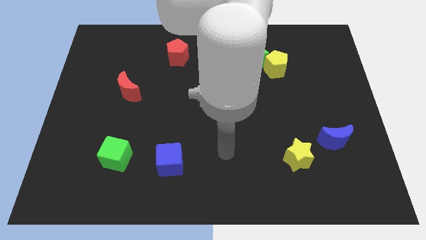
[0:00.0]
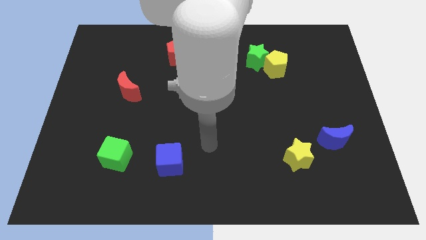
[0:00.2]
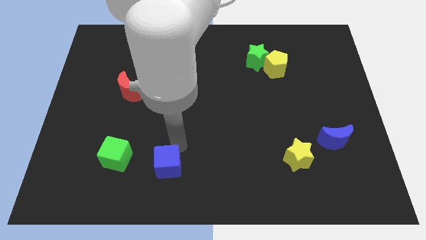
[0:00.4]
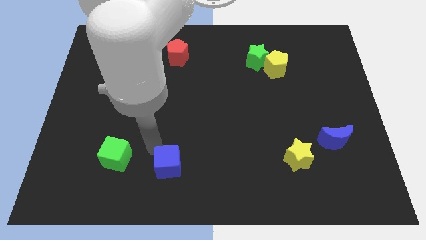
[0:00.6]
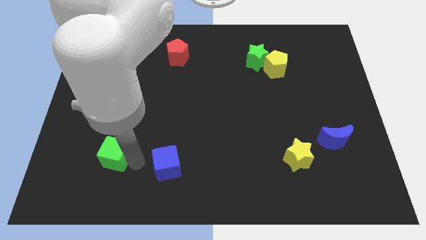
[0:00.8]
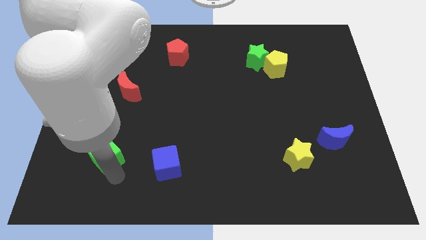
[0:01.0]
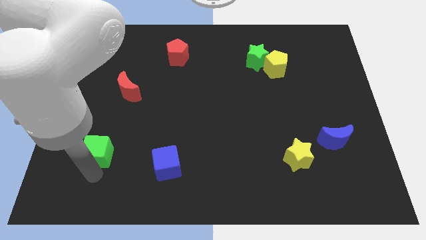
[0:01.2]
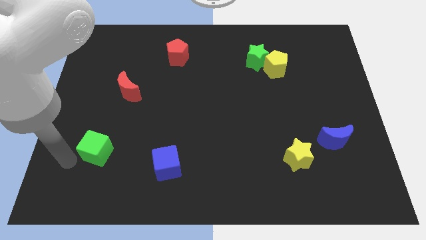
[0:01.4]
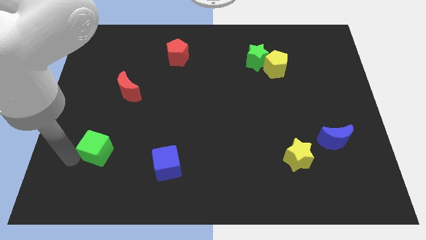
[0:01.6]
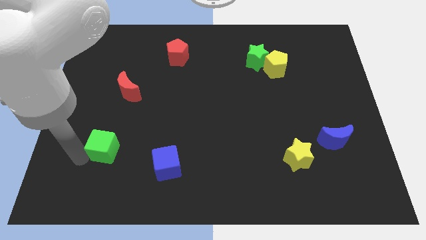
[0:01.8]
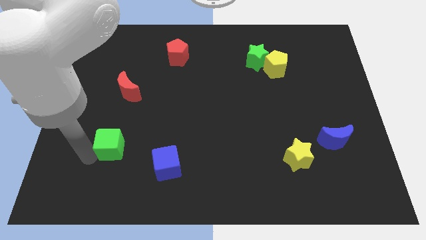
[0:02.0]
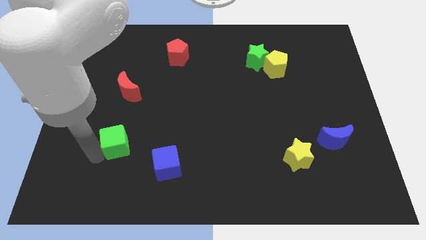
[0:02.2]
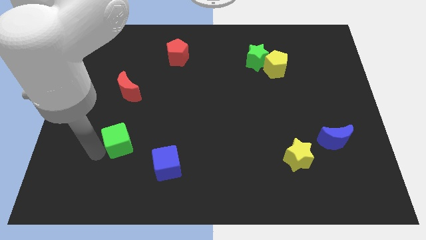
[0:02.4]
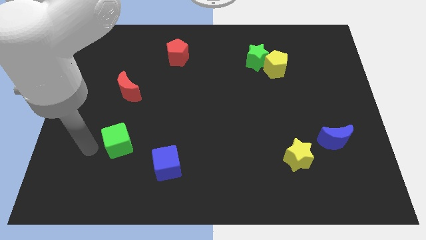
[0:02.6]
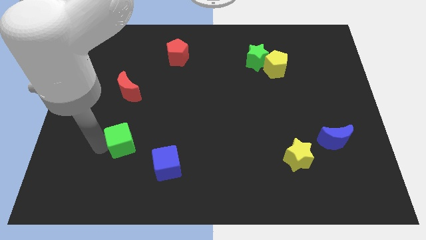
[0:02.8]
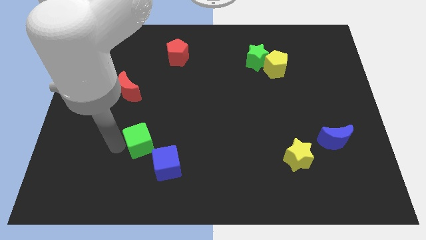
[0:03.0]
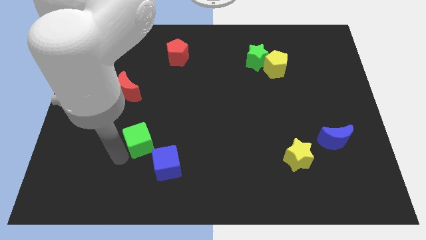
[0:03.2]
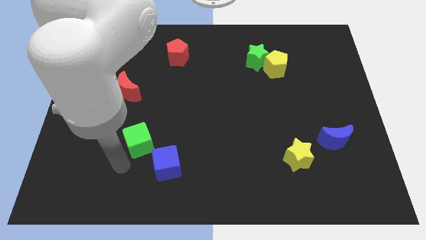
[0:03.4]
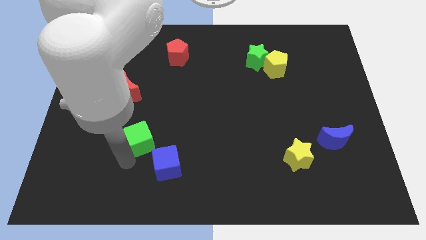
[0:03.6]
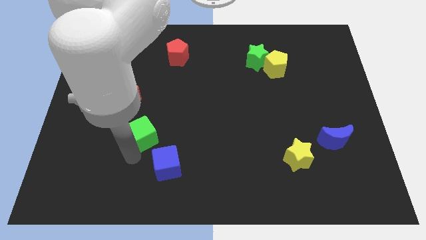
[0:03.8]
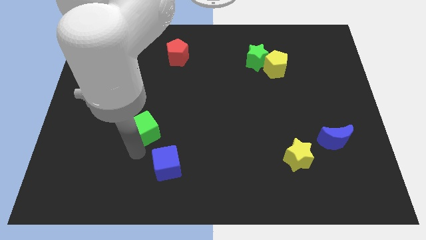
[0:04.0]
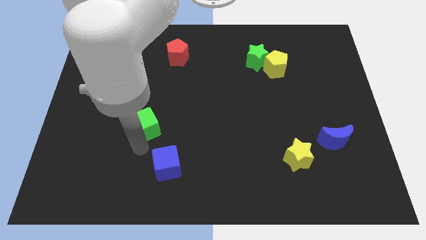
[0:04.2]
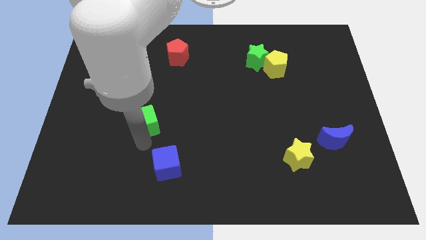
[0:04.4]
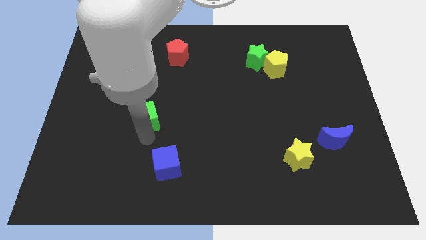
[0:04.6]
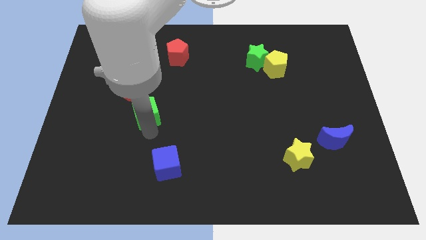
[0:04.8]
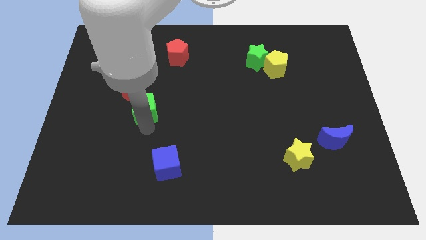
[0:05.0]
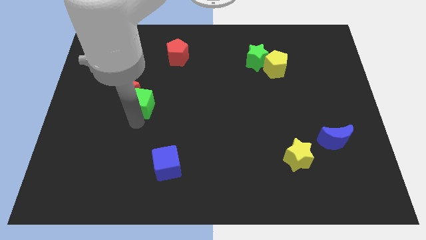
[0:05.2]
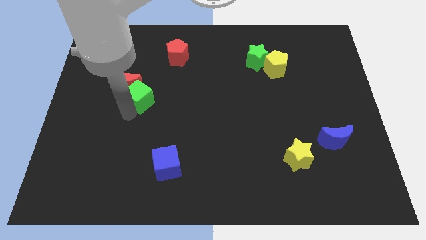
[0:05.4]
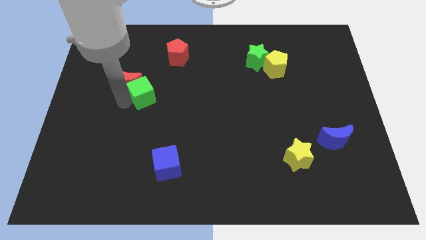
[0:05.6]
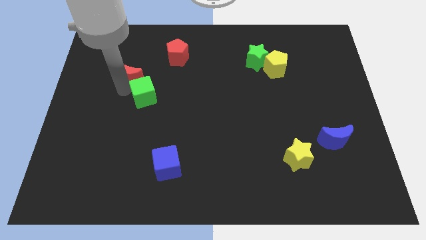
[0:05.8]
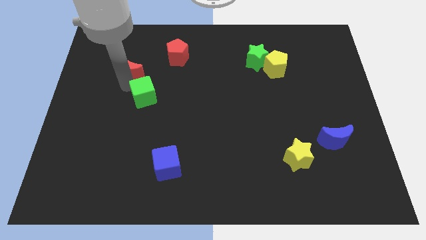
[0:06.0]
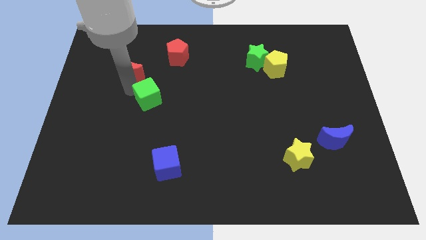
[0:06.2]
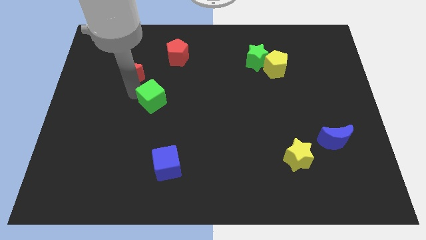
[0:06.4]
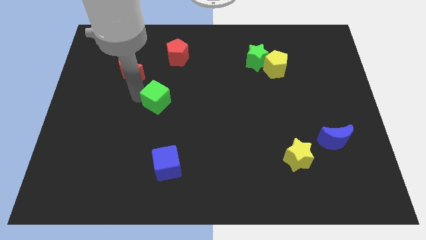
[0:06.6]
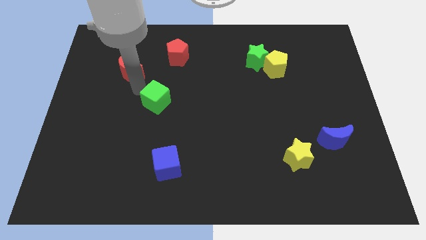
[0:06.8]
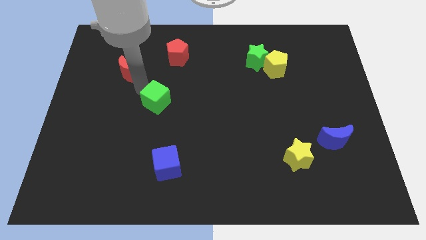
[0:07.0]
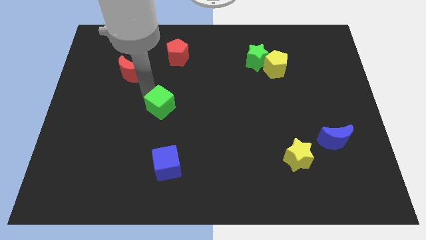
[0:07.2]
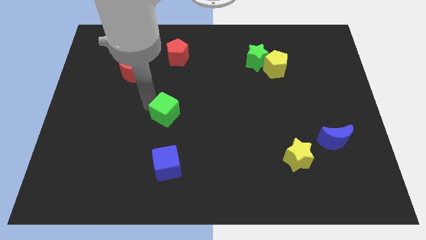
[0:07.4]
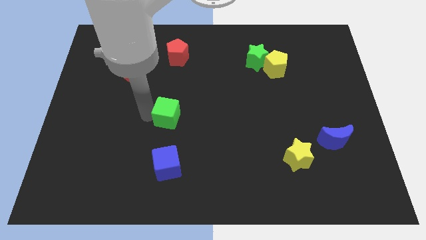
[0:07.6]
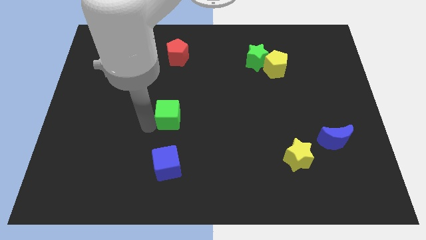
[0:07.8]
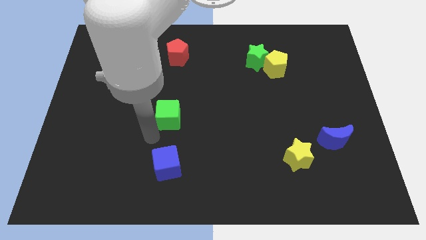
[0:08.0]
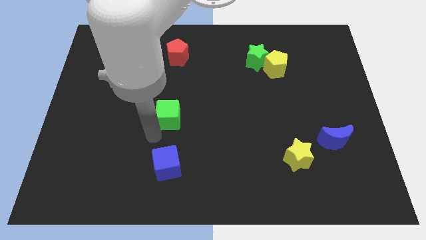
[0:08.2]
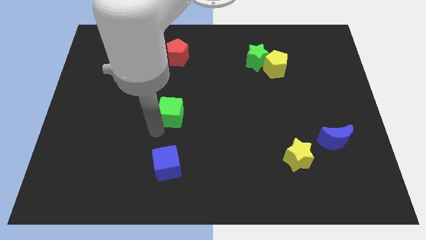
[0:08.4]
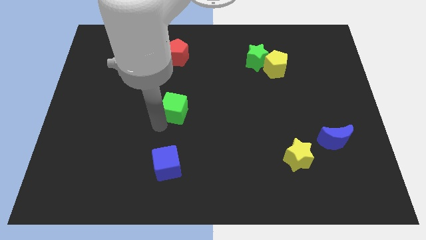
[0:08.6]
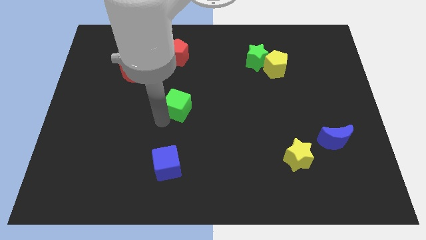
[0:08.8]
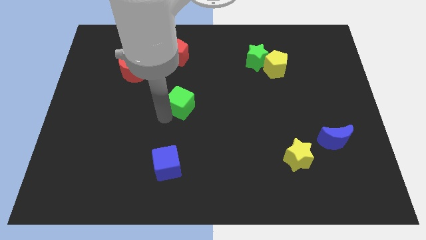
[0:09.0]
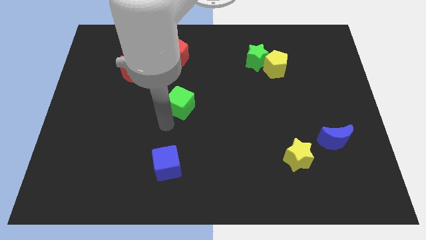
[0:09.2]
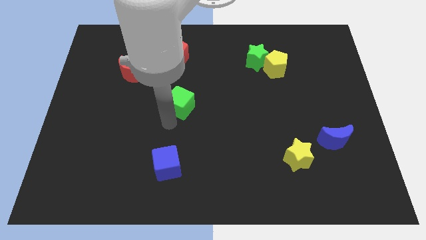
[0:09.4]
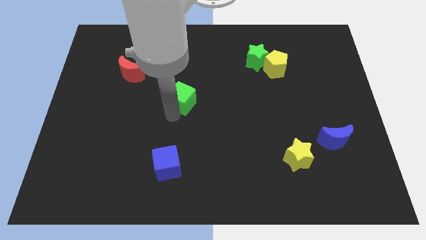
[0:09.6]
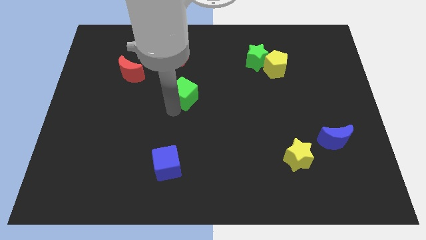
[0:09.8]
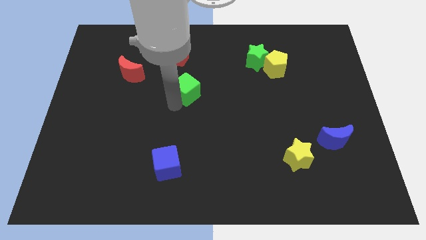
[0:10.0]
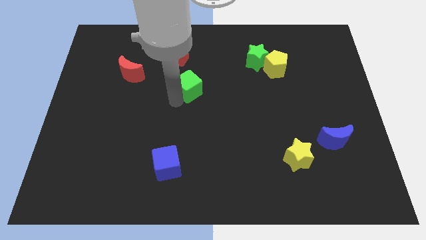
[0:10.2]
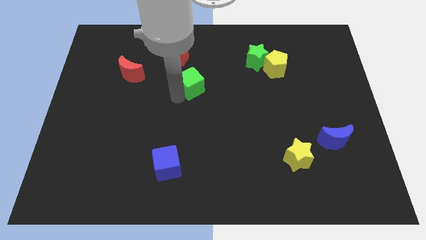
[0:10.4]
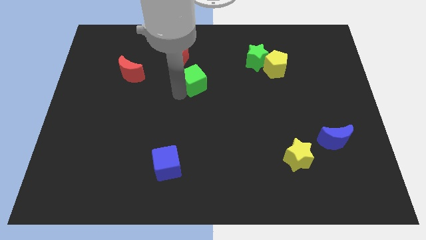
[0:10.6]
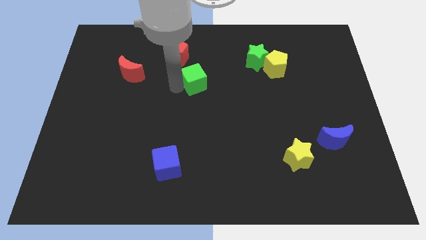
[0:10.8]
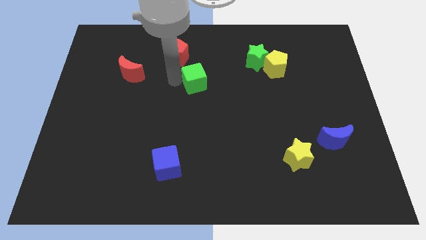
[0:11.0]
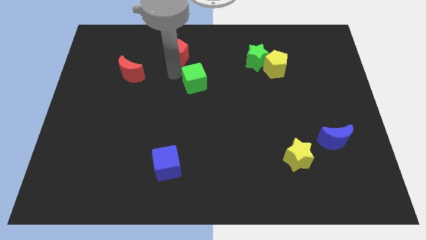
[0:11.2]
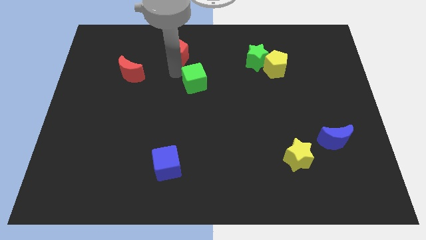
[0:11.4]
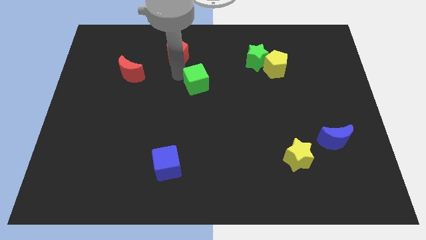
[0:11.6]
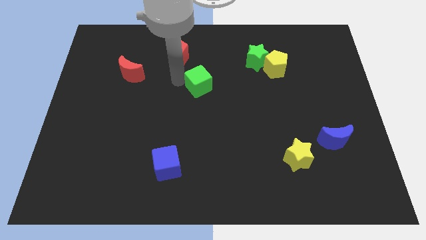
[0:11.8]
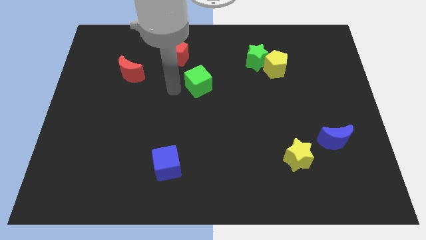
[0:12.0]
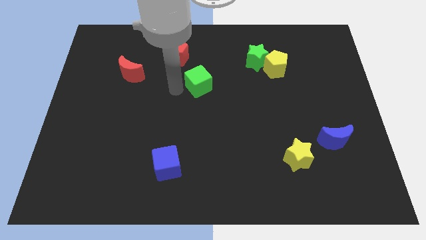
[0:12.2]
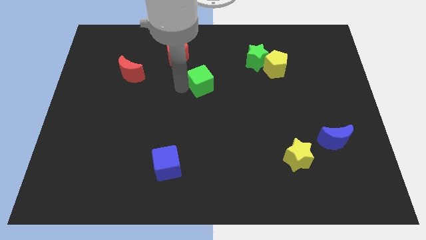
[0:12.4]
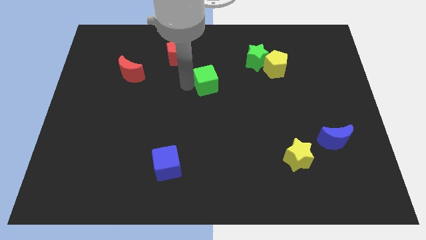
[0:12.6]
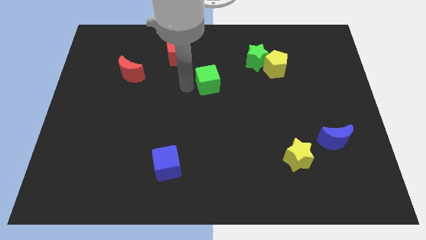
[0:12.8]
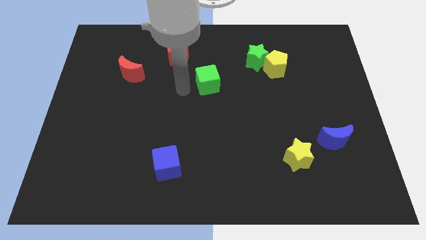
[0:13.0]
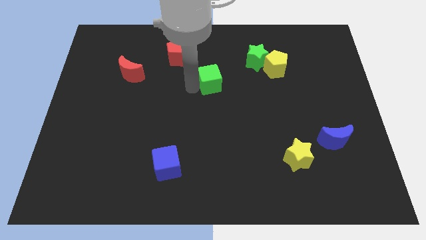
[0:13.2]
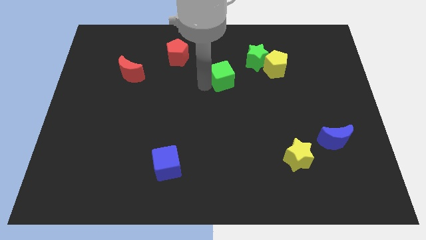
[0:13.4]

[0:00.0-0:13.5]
move the green cube just left of the yellow pentagon

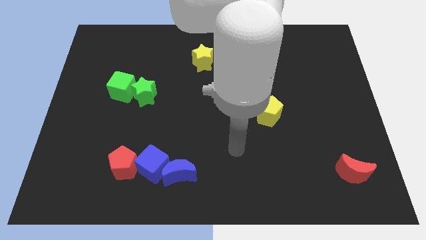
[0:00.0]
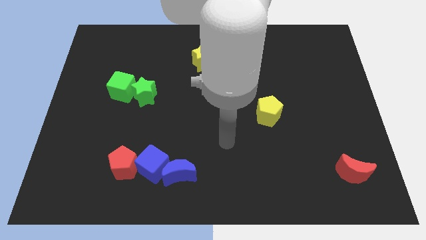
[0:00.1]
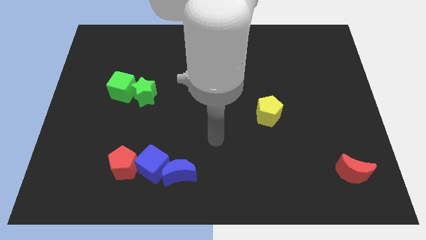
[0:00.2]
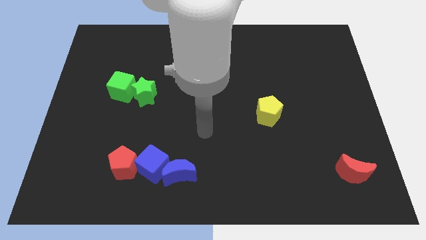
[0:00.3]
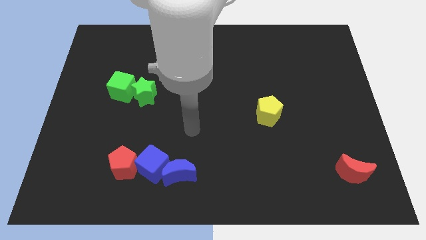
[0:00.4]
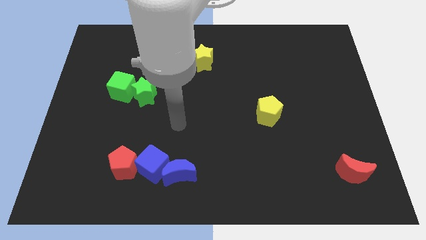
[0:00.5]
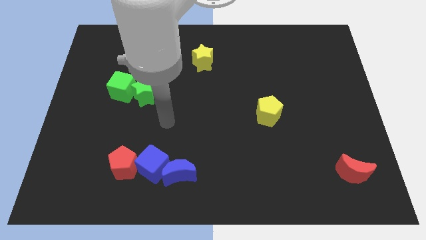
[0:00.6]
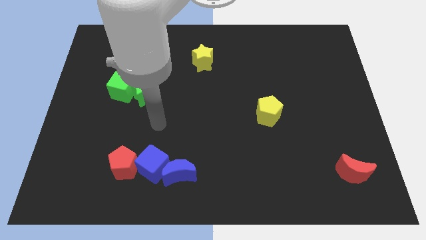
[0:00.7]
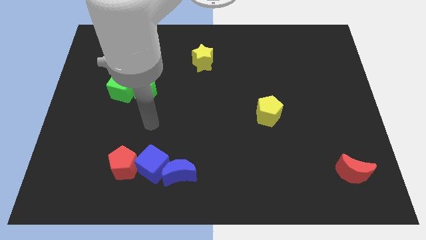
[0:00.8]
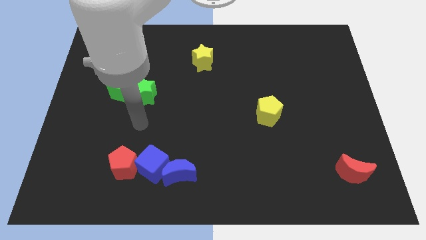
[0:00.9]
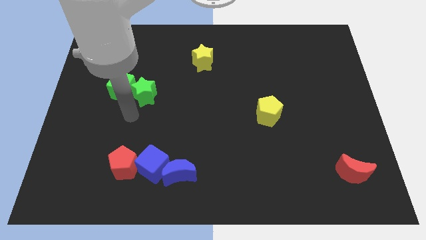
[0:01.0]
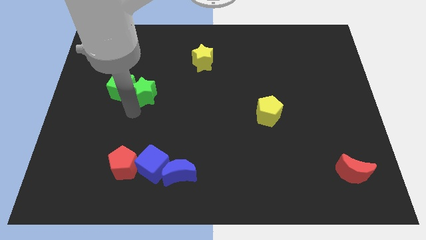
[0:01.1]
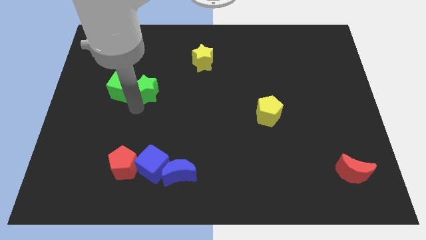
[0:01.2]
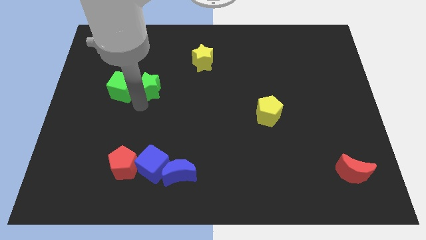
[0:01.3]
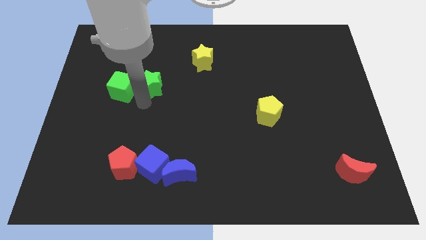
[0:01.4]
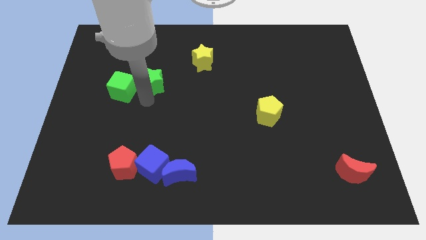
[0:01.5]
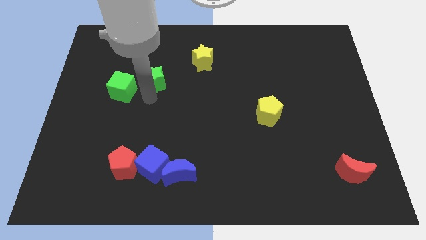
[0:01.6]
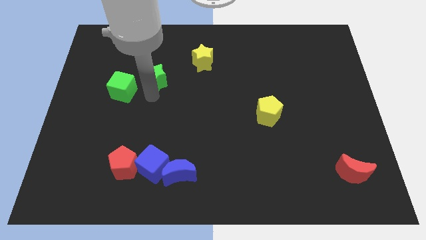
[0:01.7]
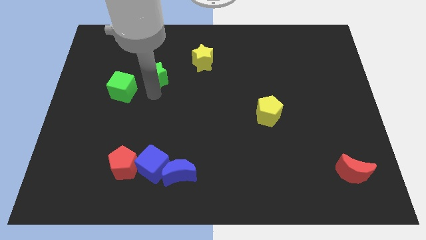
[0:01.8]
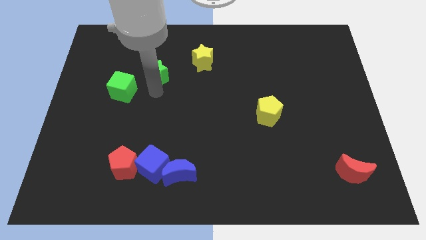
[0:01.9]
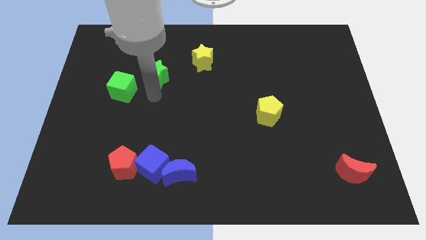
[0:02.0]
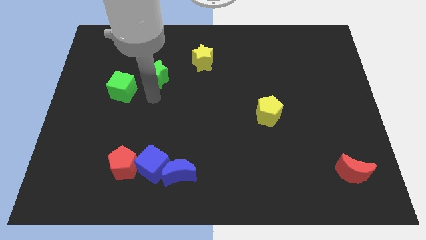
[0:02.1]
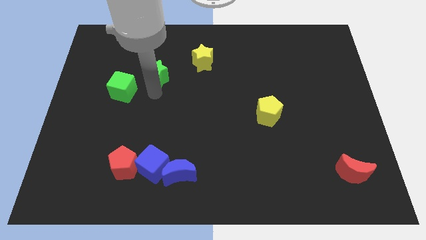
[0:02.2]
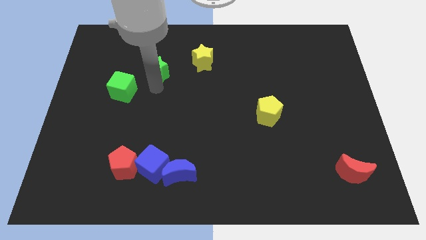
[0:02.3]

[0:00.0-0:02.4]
put the green star to the left of the yellow star
